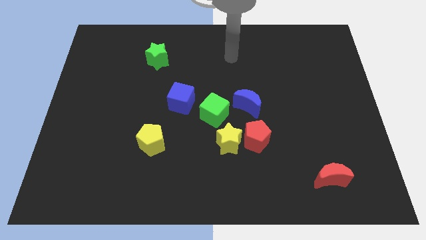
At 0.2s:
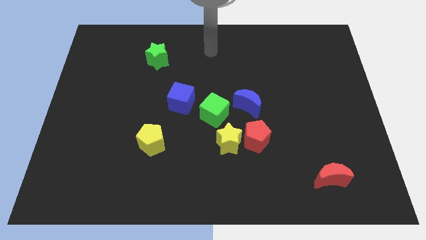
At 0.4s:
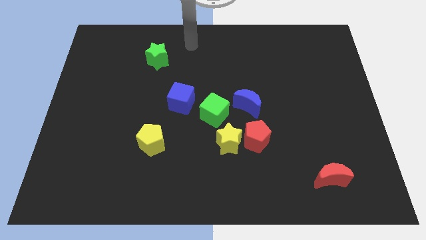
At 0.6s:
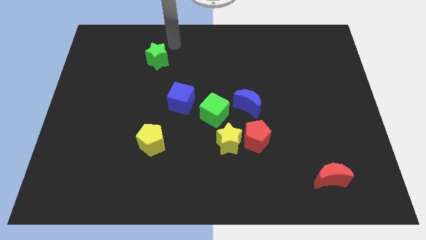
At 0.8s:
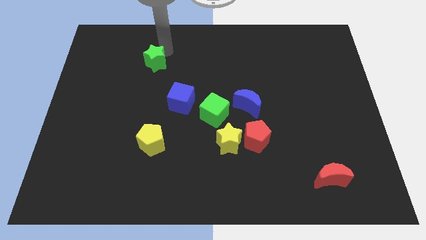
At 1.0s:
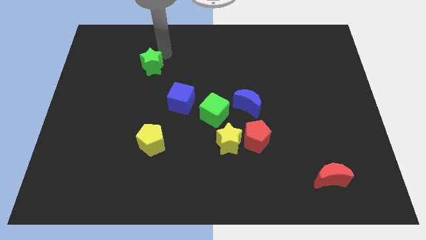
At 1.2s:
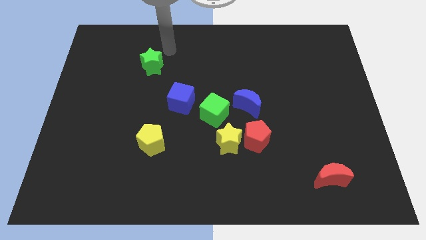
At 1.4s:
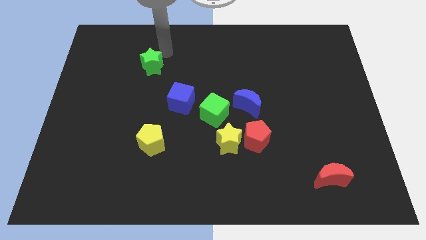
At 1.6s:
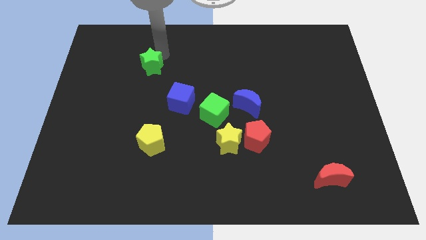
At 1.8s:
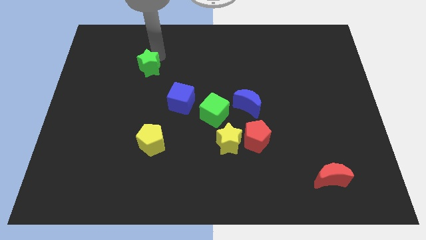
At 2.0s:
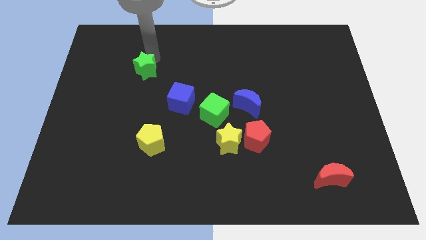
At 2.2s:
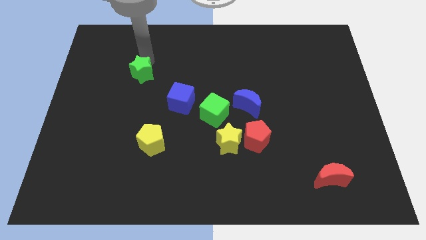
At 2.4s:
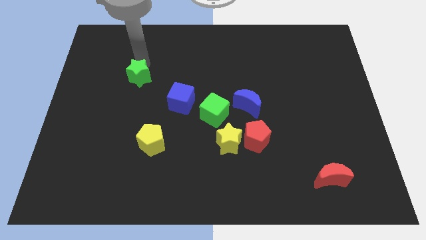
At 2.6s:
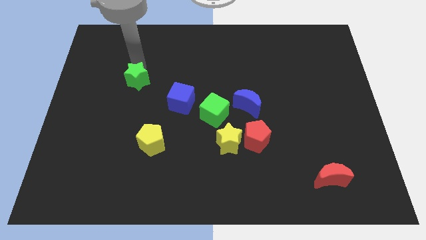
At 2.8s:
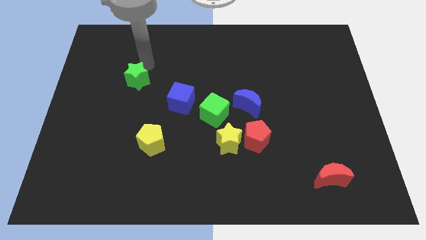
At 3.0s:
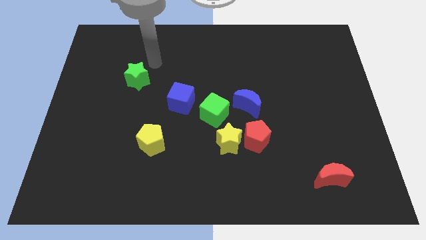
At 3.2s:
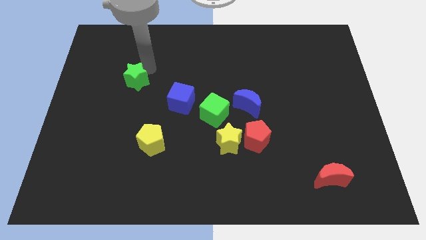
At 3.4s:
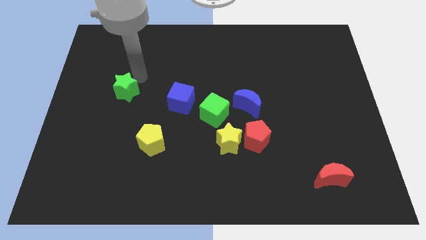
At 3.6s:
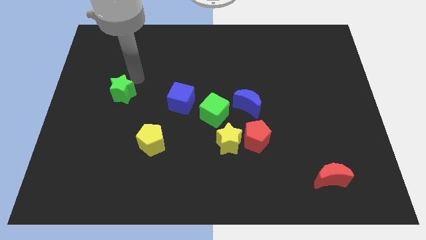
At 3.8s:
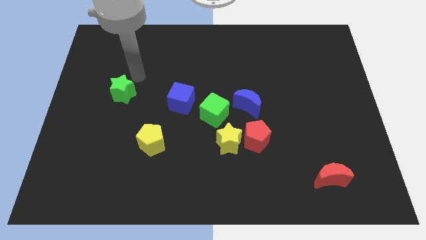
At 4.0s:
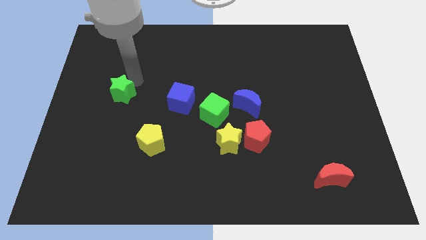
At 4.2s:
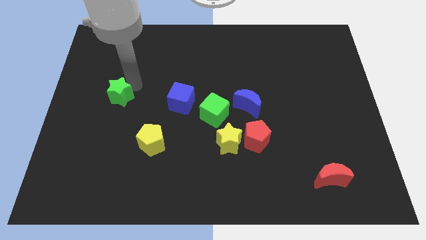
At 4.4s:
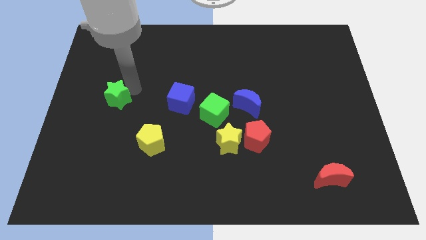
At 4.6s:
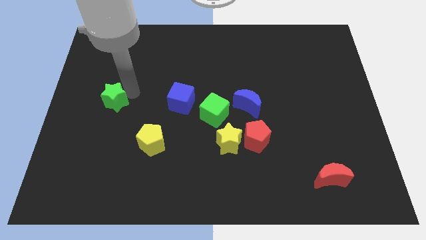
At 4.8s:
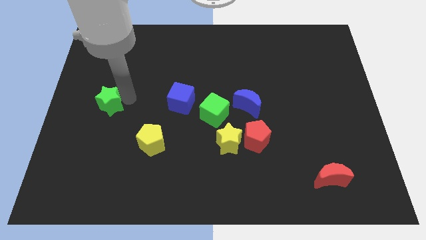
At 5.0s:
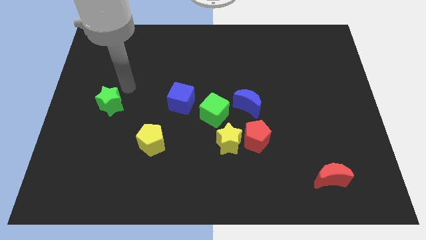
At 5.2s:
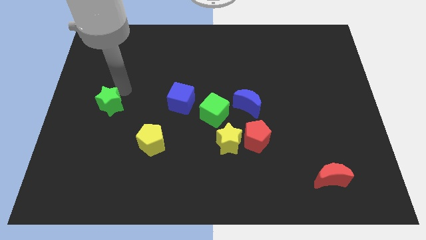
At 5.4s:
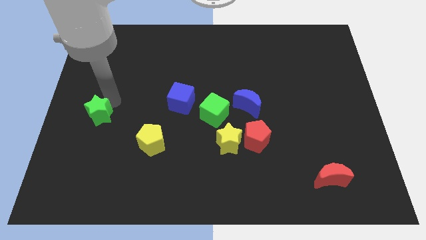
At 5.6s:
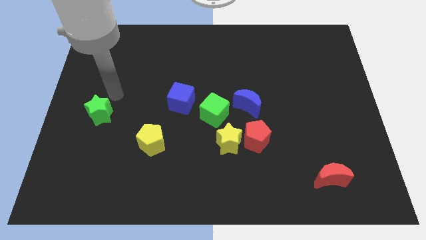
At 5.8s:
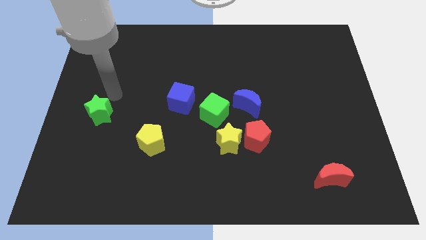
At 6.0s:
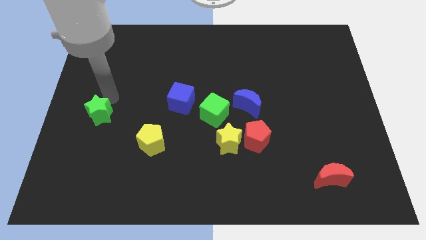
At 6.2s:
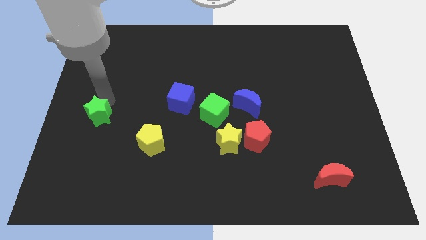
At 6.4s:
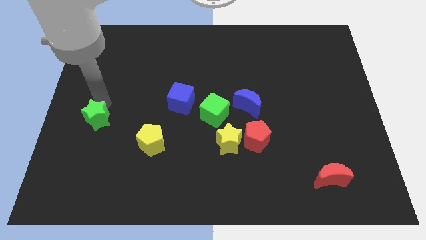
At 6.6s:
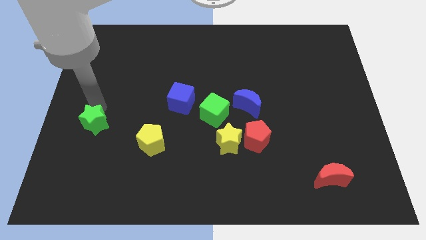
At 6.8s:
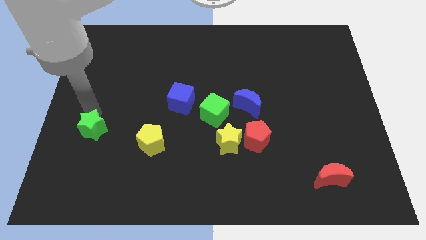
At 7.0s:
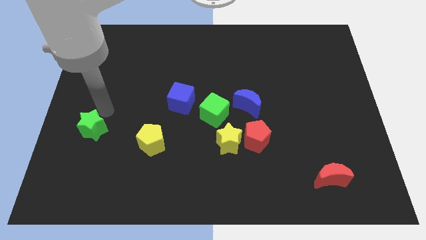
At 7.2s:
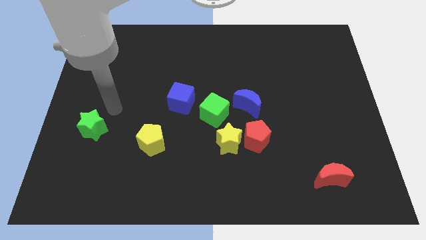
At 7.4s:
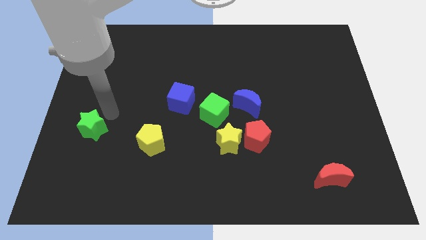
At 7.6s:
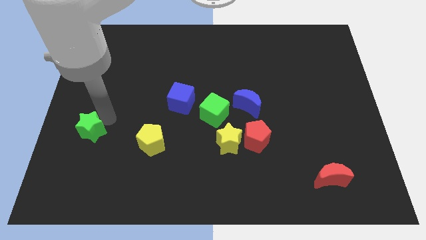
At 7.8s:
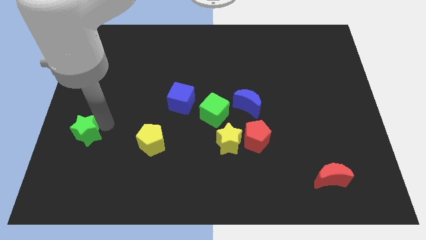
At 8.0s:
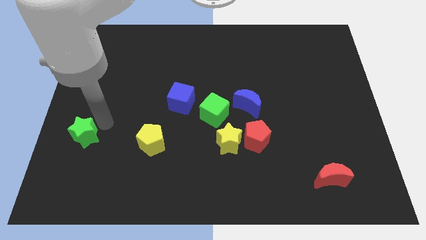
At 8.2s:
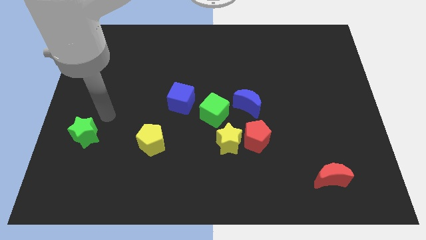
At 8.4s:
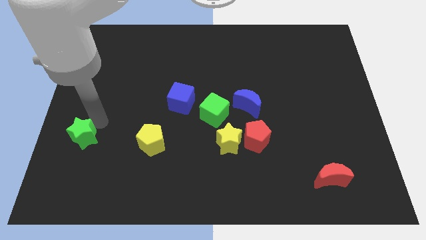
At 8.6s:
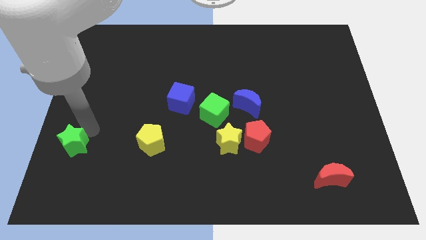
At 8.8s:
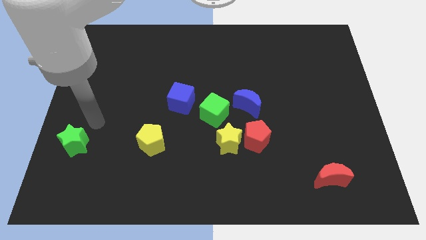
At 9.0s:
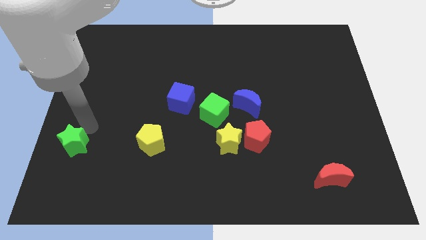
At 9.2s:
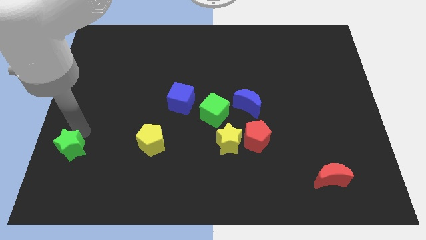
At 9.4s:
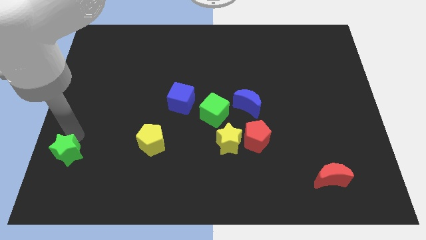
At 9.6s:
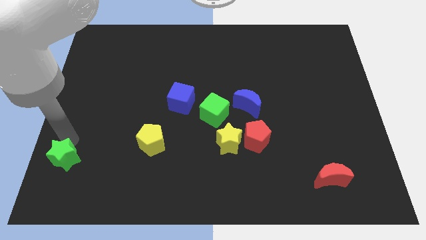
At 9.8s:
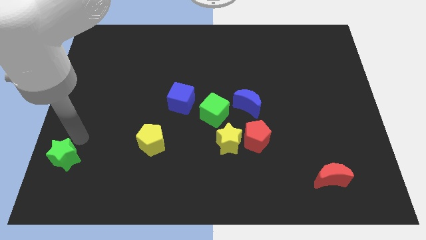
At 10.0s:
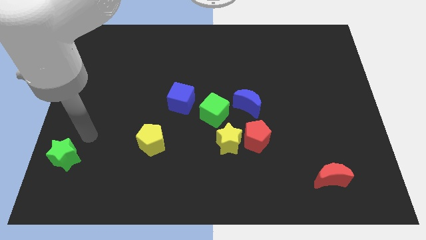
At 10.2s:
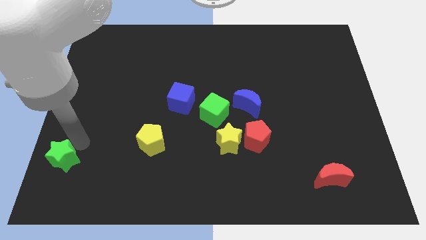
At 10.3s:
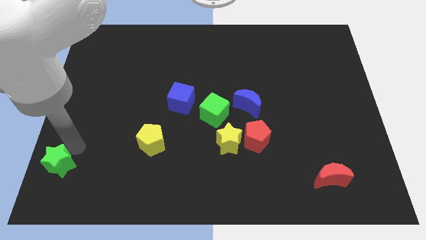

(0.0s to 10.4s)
push the green star to the lower left corner

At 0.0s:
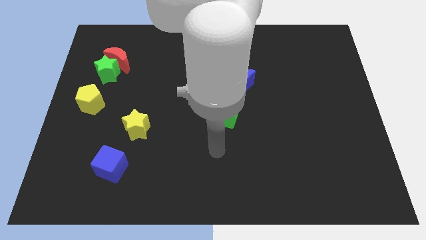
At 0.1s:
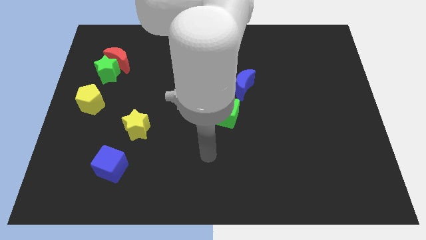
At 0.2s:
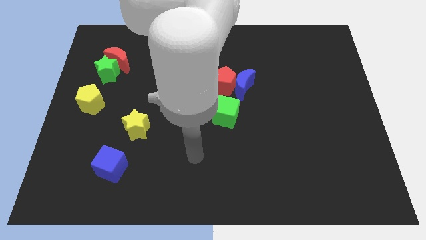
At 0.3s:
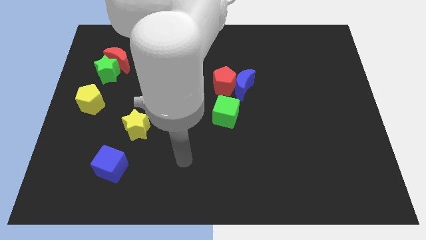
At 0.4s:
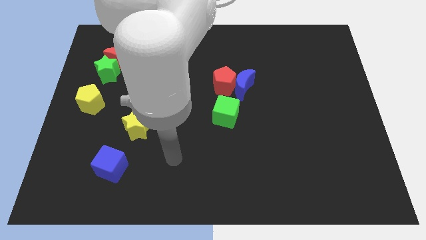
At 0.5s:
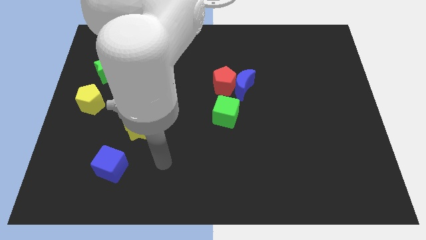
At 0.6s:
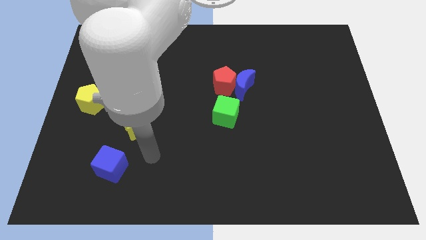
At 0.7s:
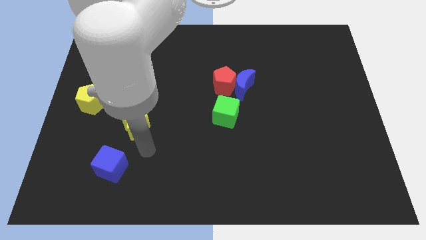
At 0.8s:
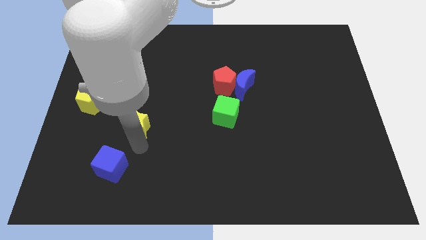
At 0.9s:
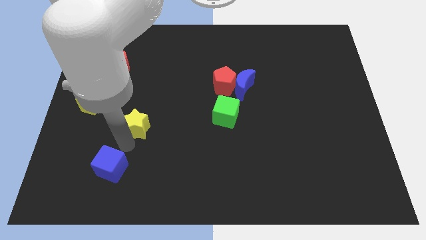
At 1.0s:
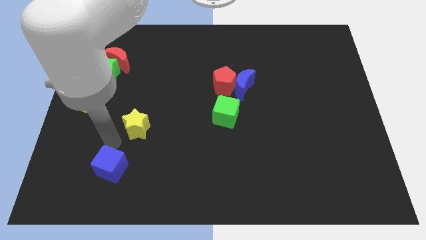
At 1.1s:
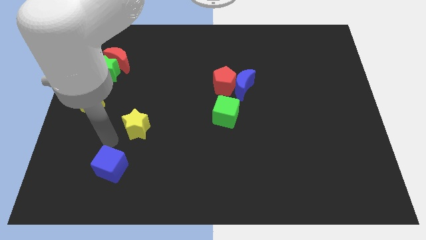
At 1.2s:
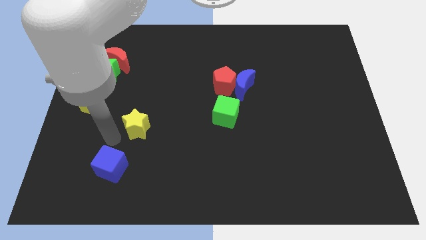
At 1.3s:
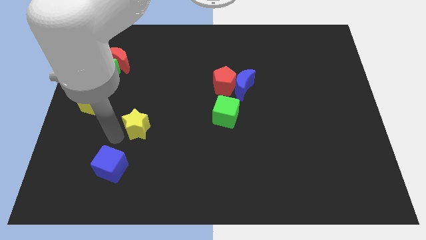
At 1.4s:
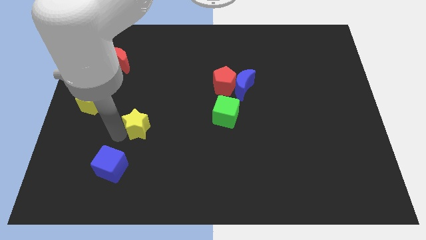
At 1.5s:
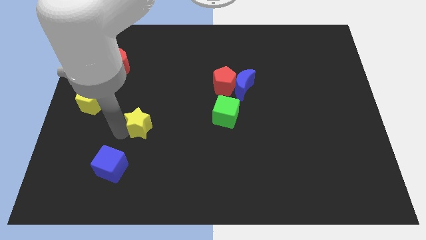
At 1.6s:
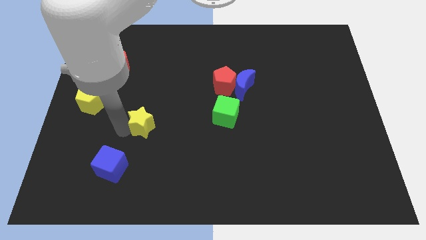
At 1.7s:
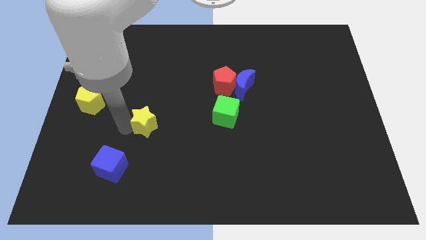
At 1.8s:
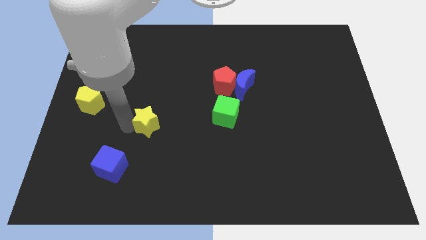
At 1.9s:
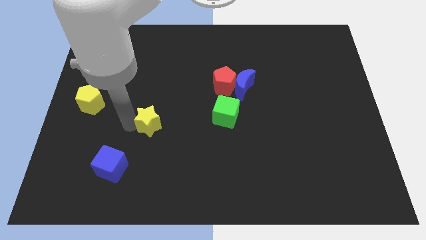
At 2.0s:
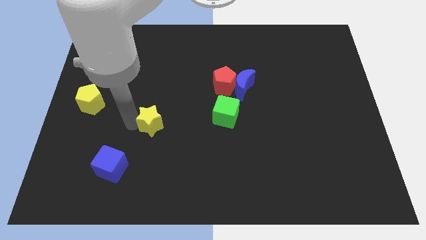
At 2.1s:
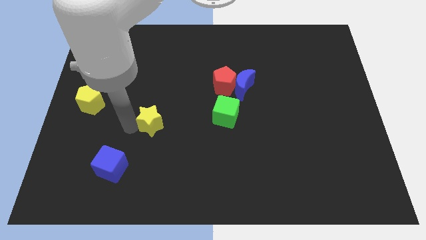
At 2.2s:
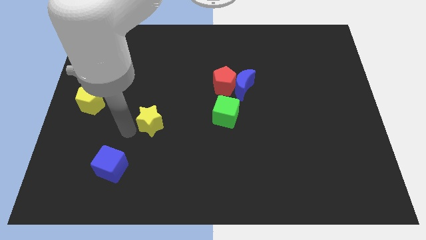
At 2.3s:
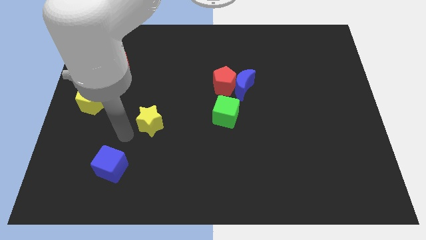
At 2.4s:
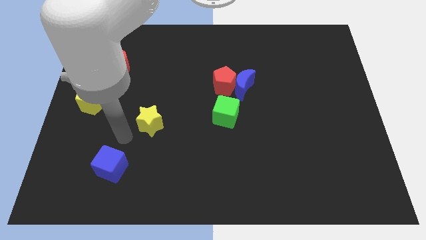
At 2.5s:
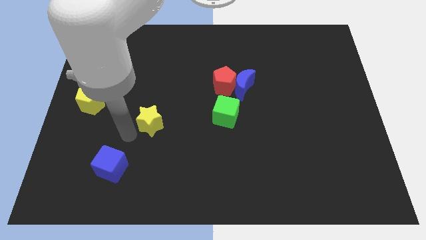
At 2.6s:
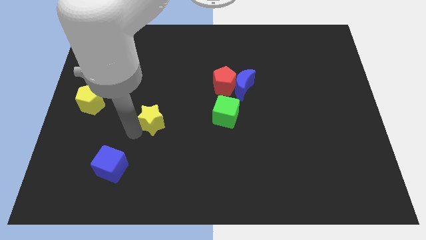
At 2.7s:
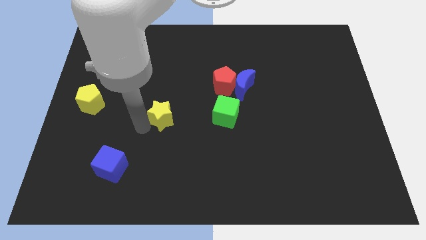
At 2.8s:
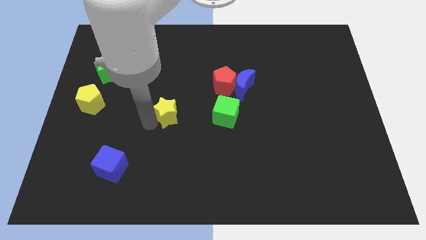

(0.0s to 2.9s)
put the yellow star to the middle of the board
